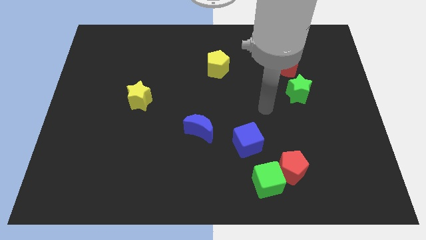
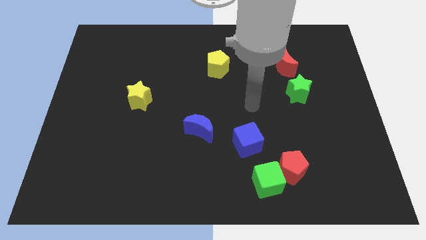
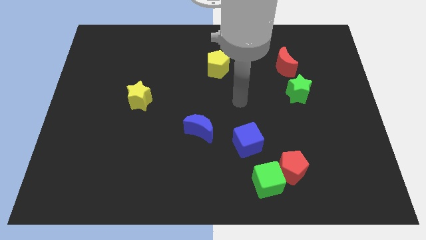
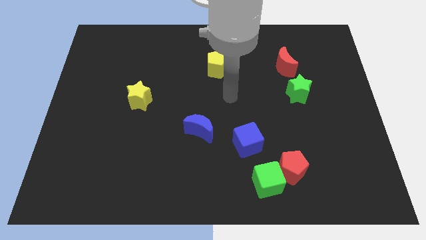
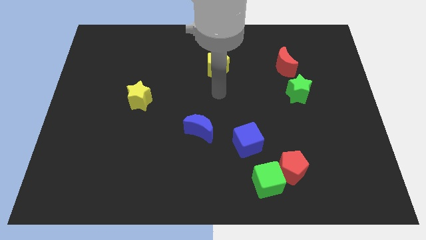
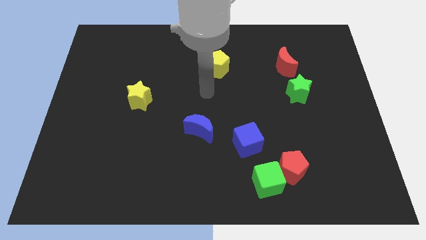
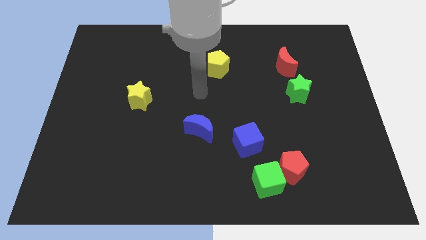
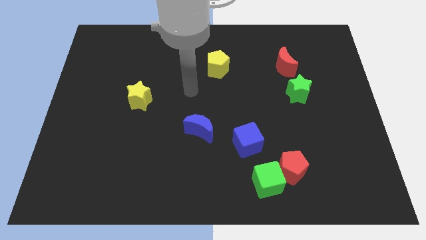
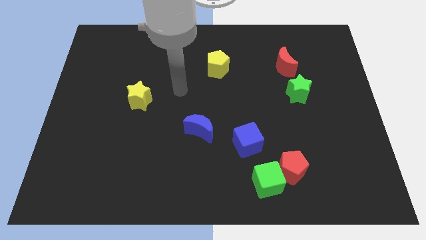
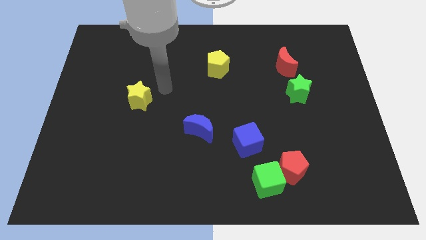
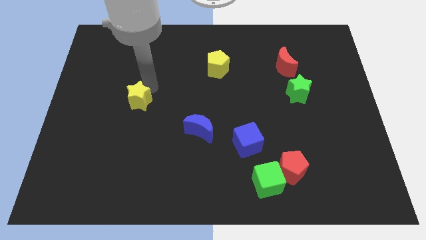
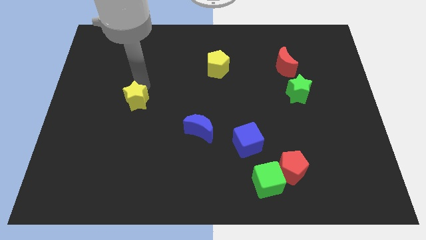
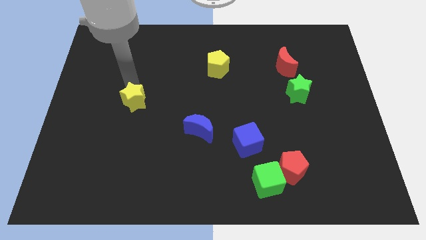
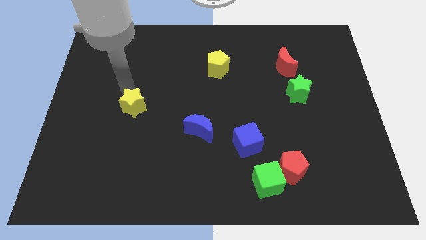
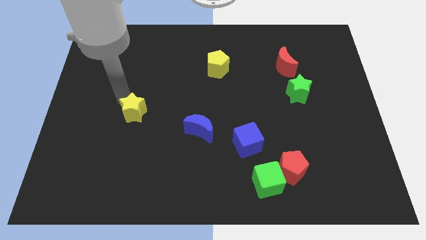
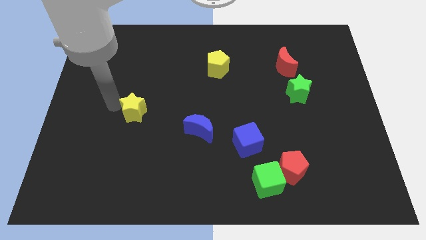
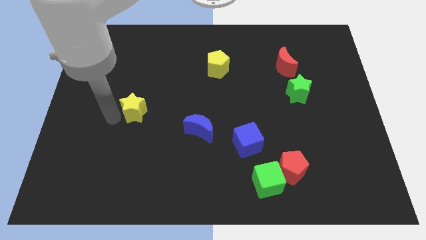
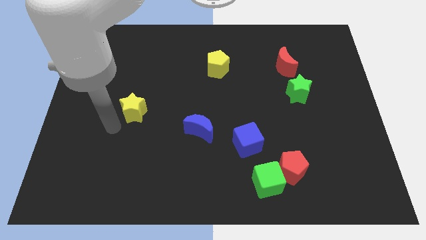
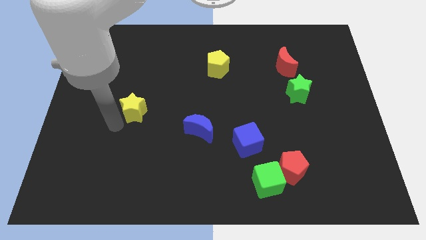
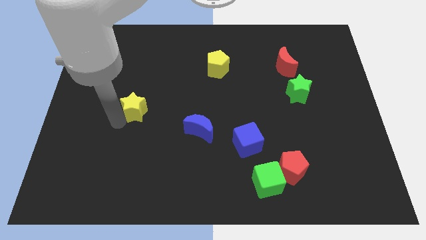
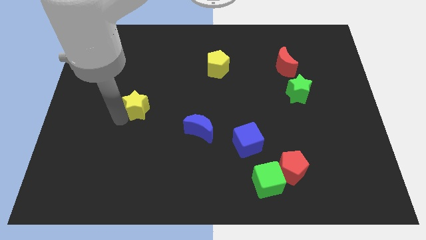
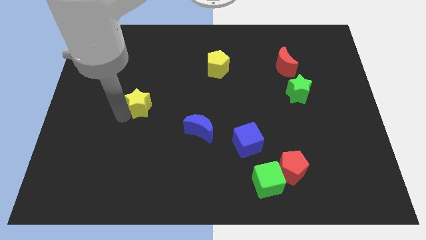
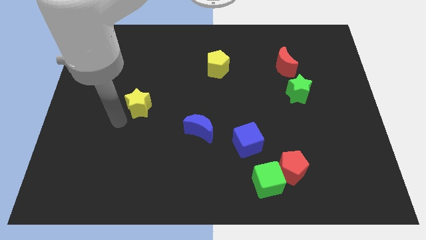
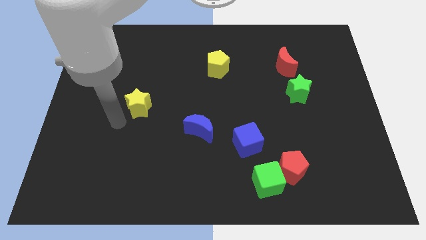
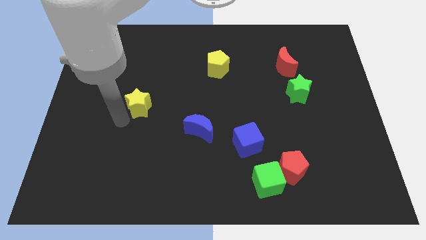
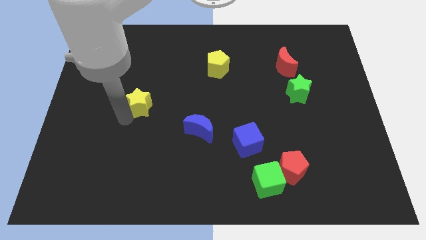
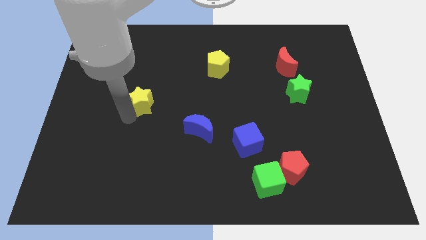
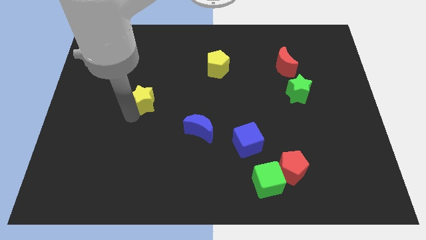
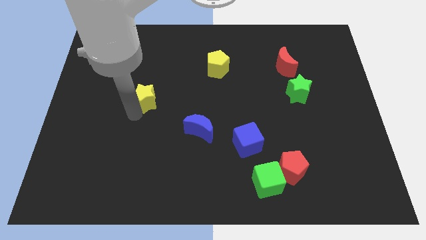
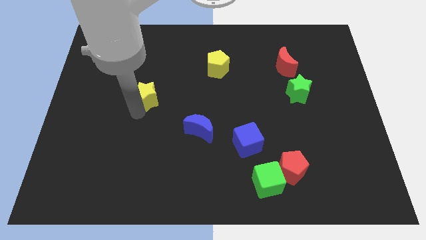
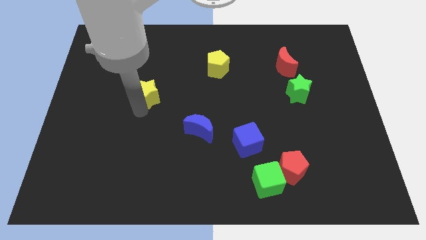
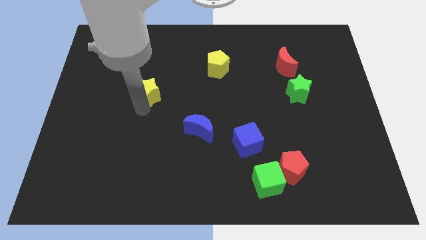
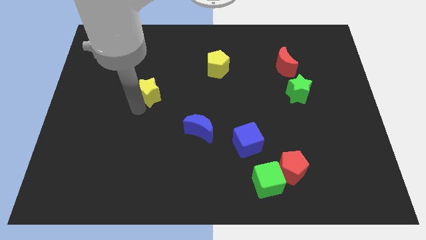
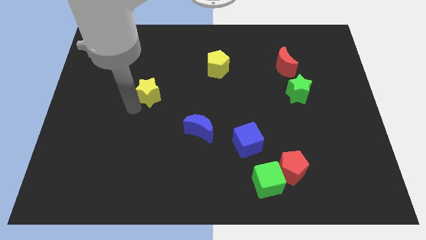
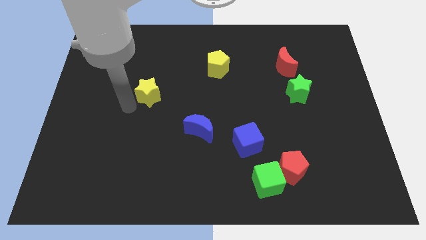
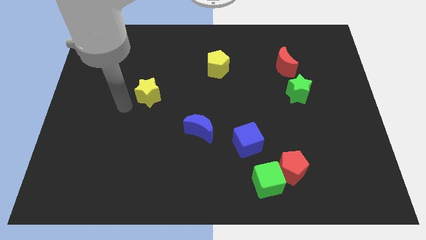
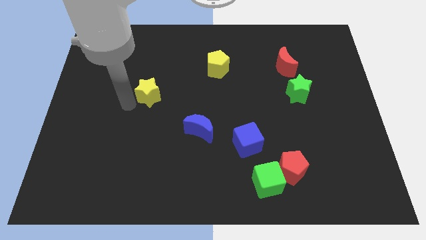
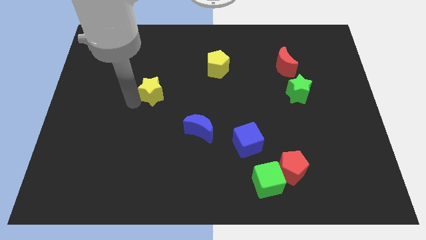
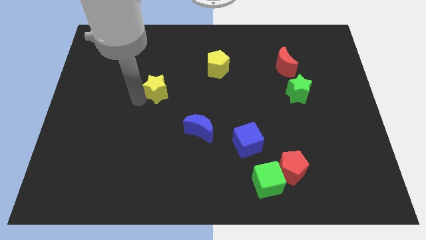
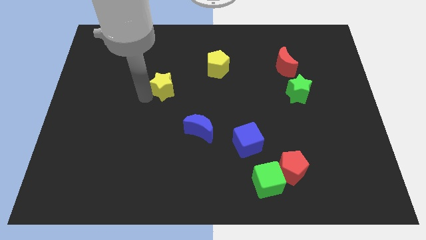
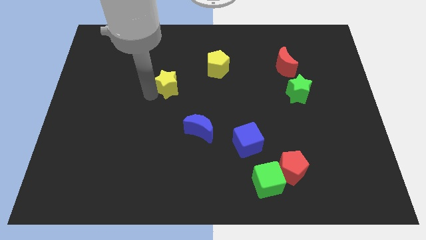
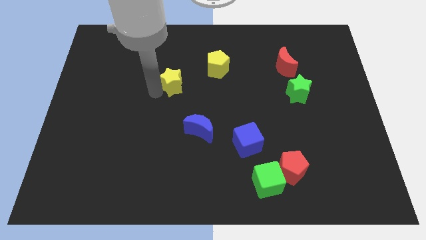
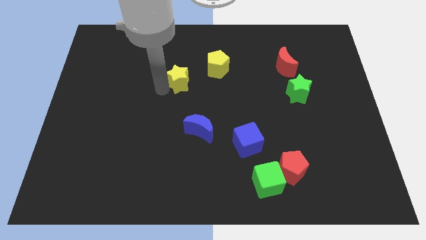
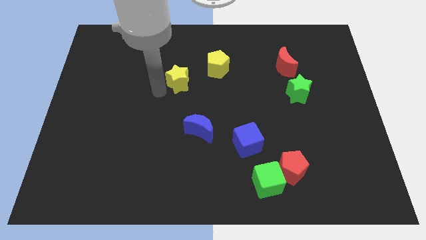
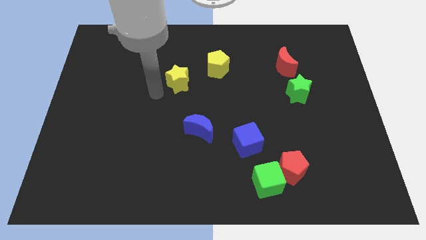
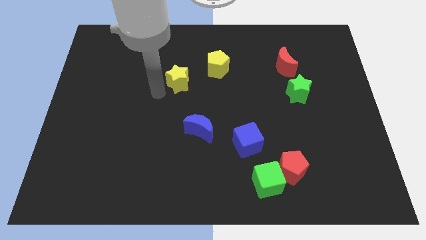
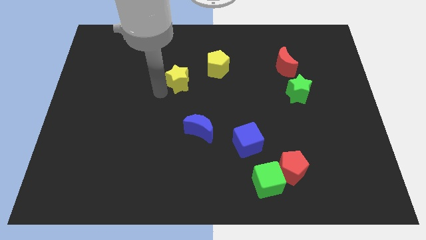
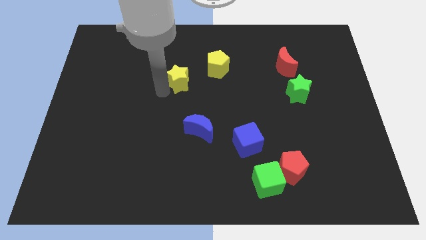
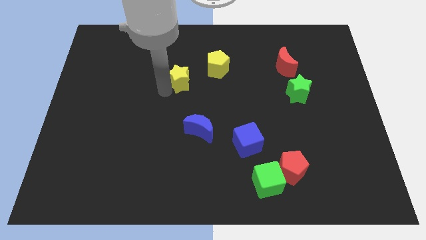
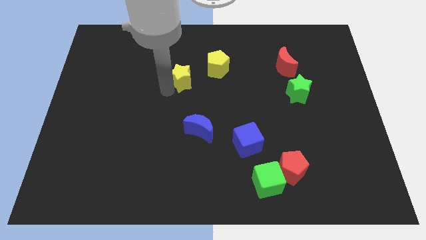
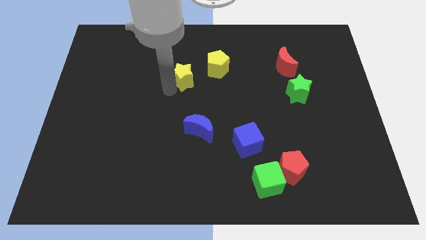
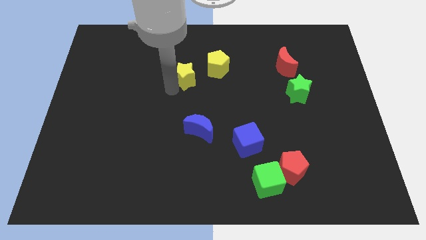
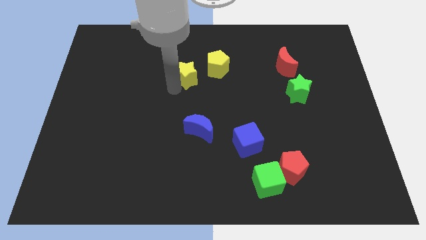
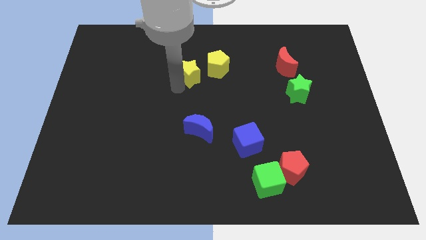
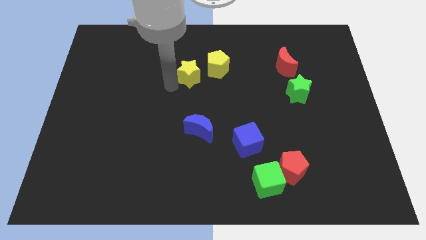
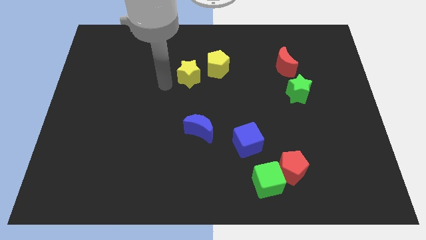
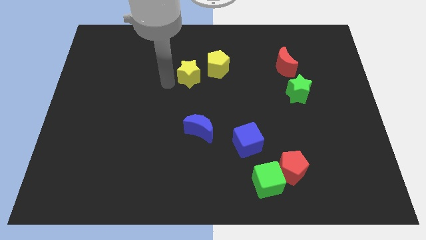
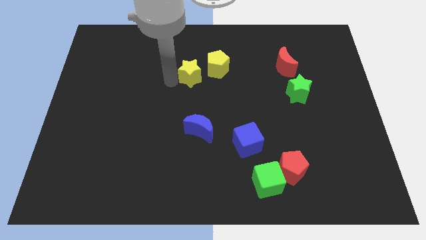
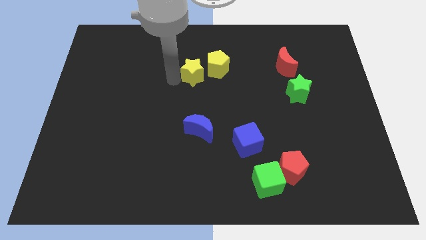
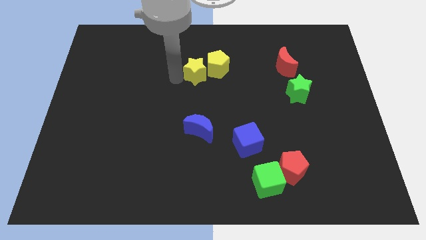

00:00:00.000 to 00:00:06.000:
move the yellow star towards the yellow pentagon

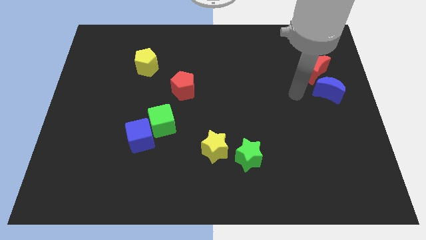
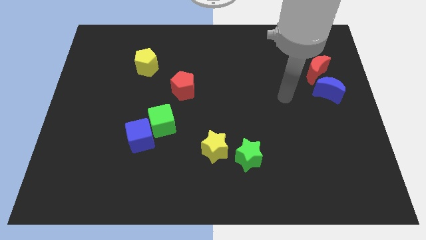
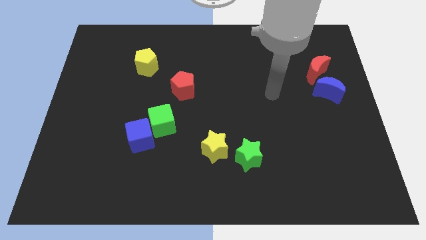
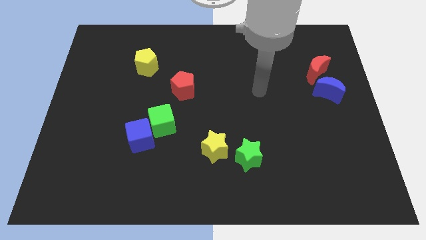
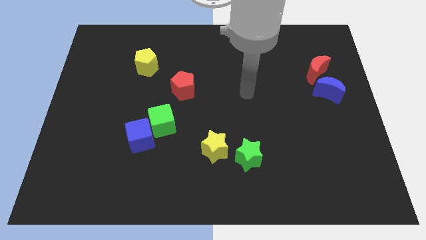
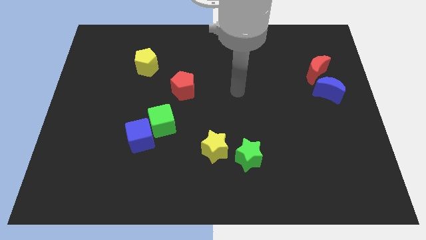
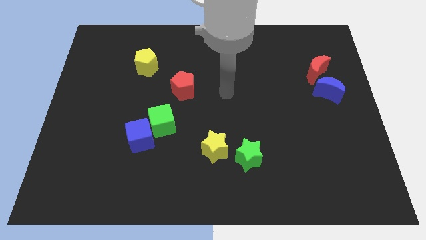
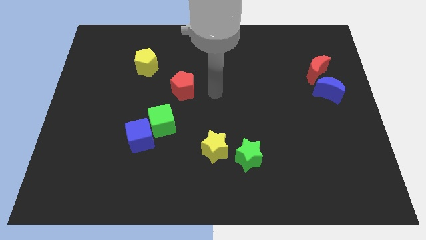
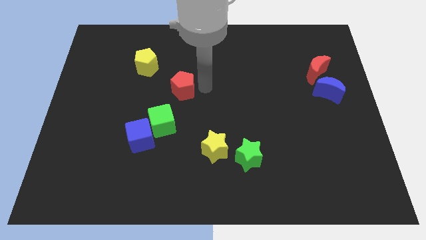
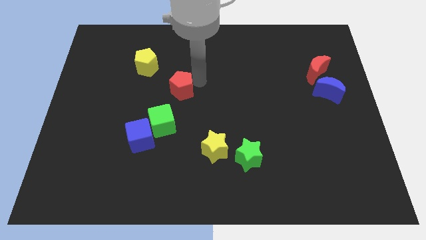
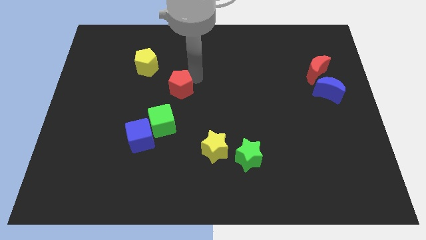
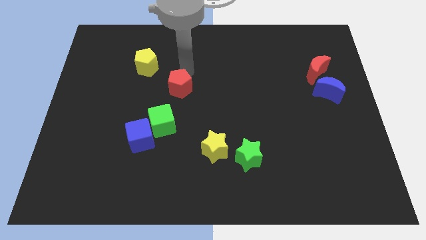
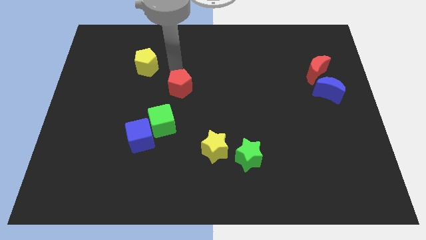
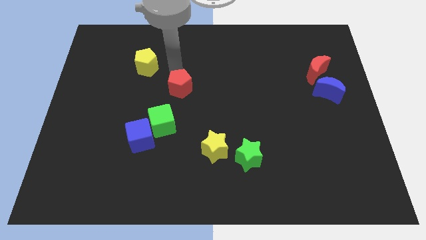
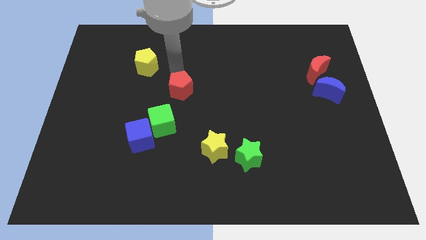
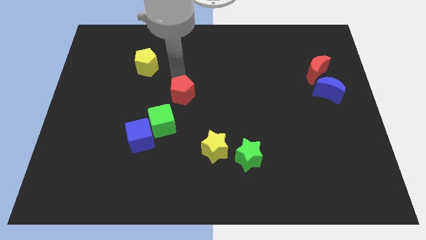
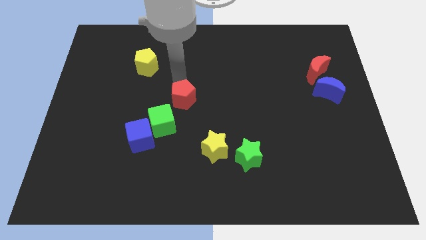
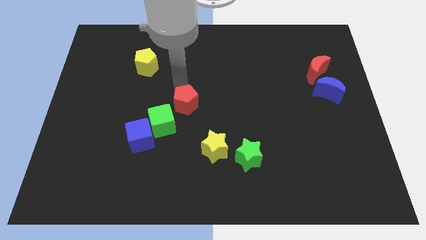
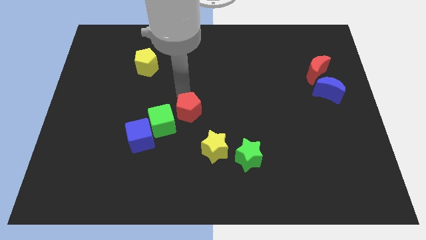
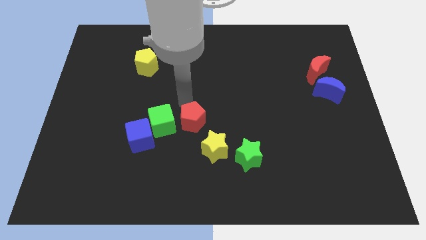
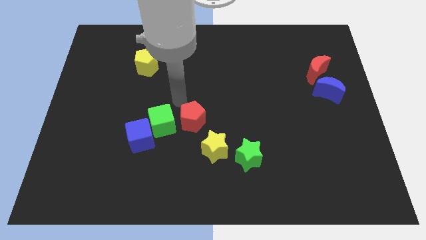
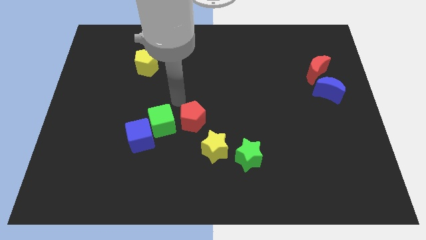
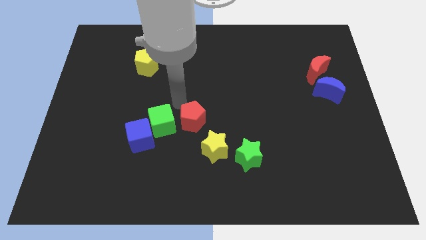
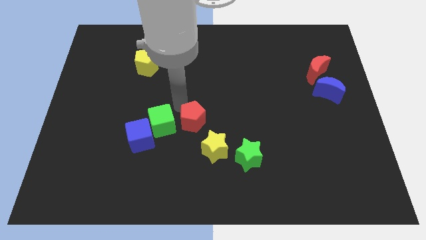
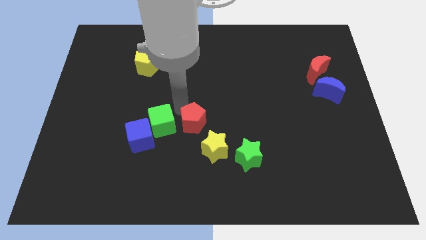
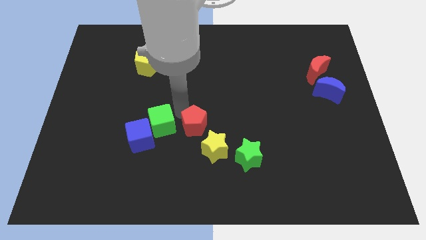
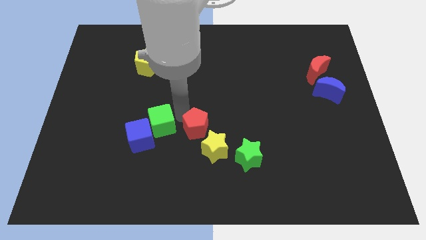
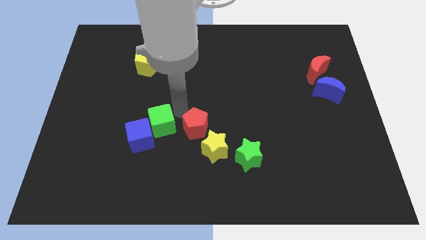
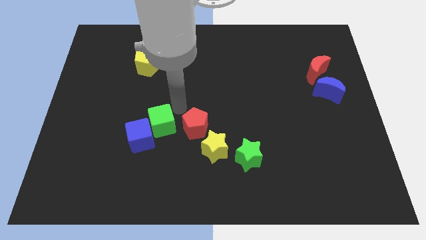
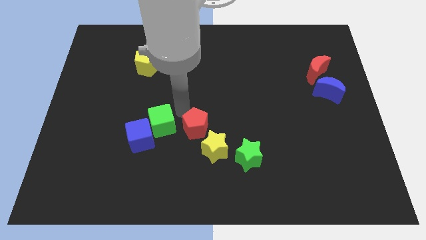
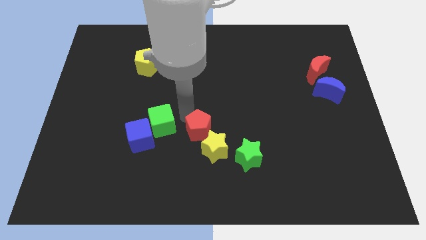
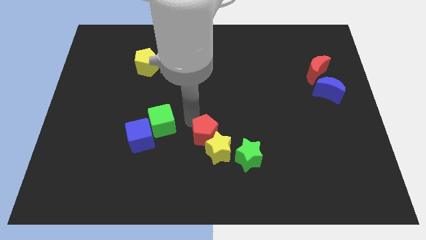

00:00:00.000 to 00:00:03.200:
put the red pentagon towards the yellow star
